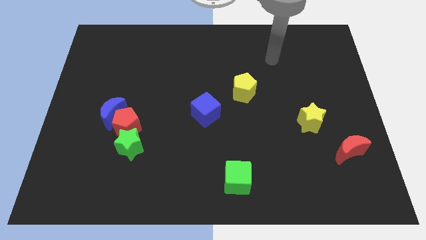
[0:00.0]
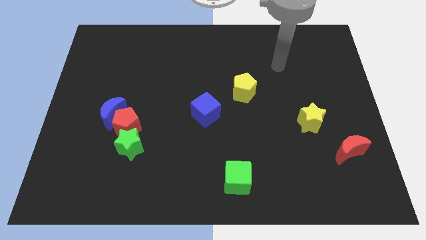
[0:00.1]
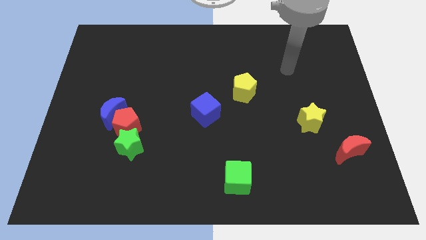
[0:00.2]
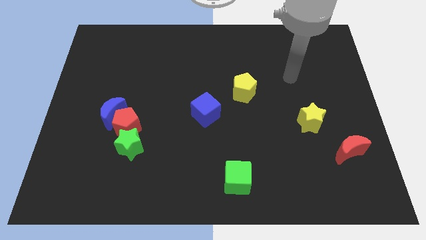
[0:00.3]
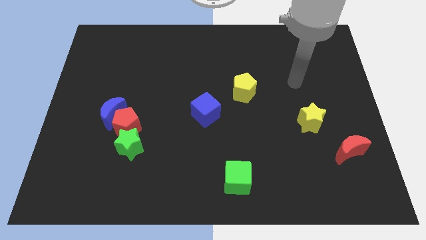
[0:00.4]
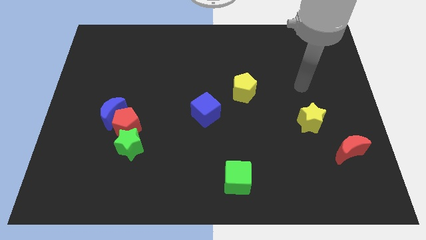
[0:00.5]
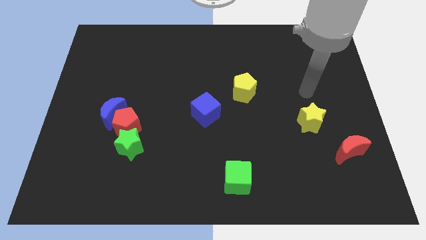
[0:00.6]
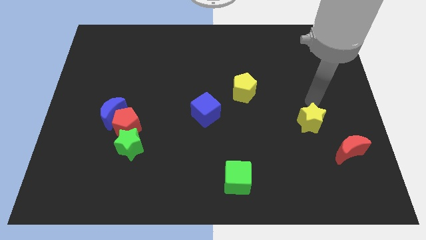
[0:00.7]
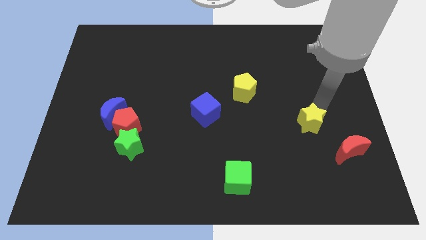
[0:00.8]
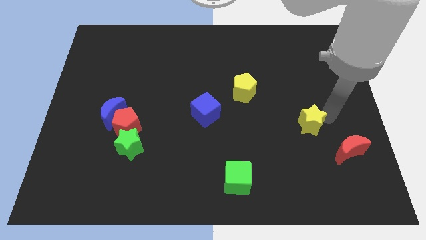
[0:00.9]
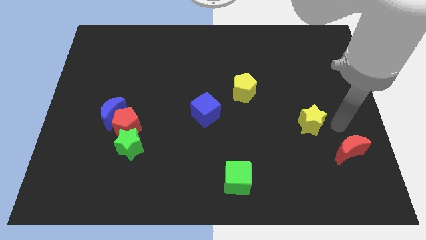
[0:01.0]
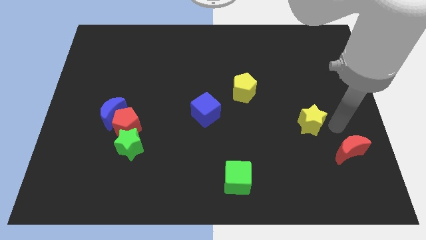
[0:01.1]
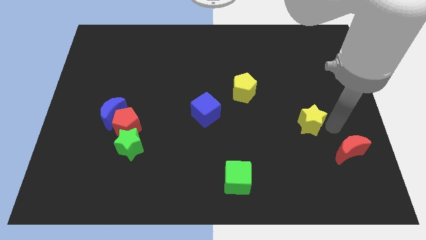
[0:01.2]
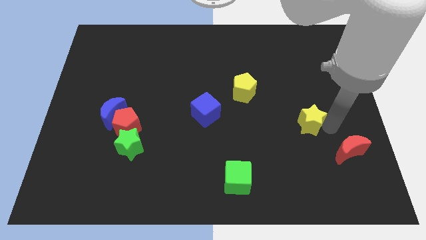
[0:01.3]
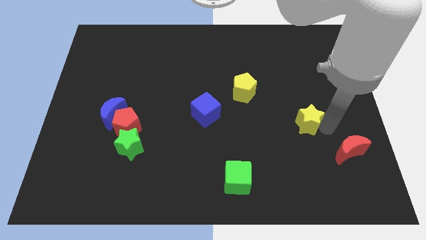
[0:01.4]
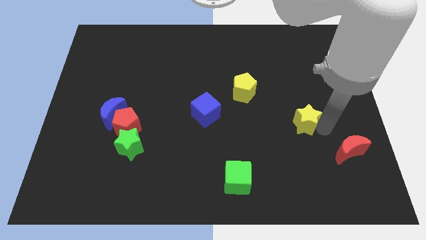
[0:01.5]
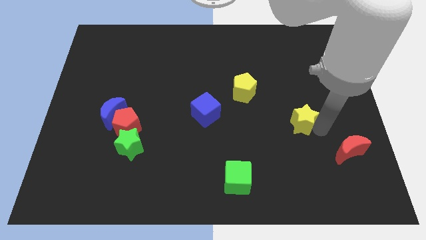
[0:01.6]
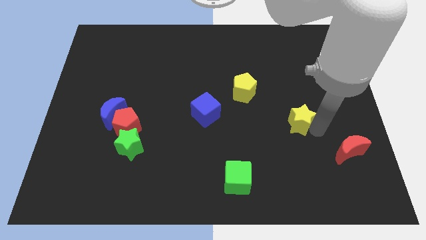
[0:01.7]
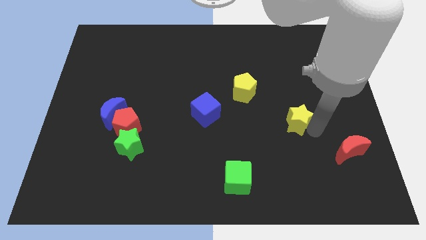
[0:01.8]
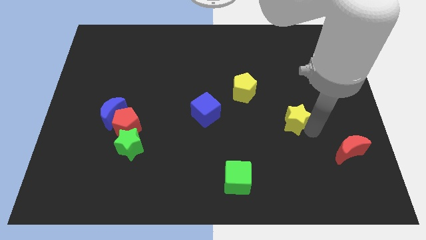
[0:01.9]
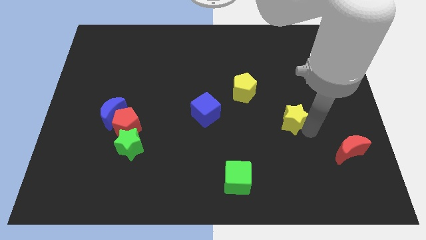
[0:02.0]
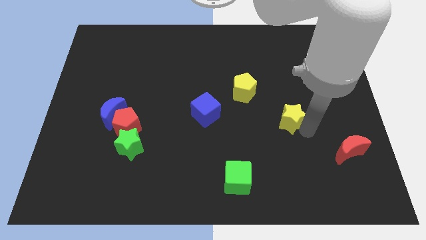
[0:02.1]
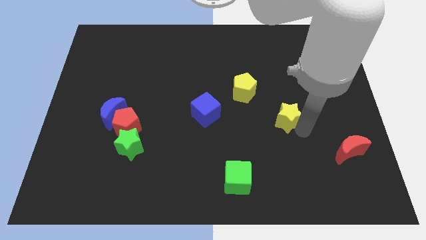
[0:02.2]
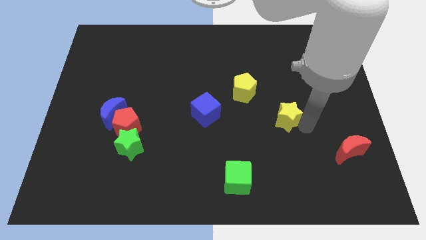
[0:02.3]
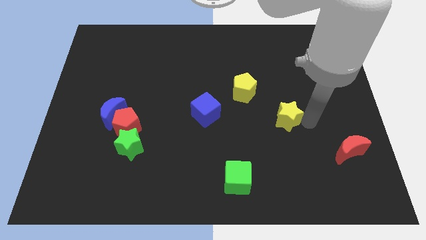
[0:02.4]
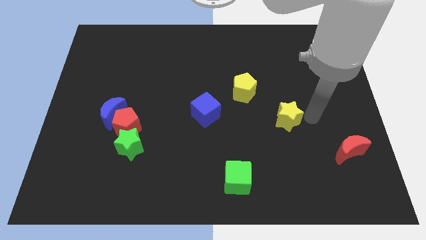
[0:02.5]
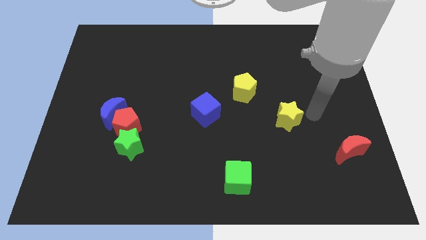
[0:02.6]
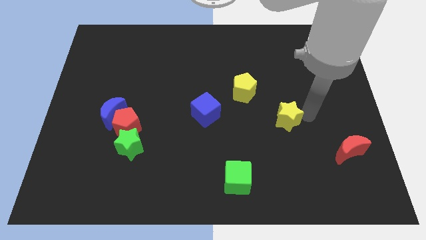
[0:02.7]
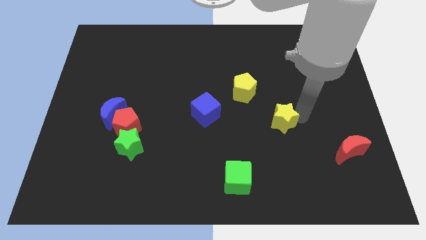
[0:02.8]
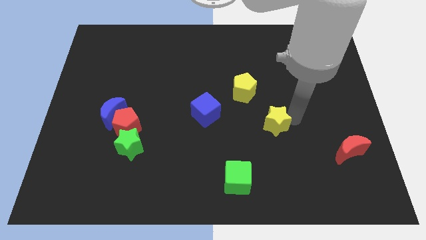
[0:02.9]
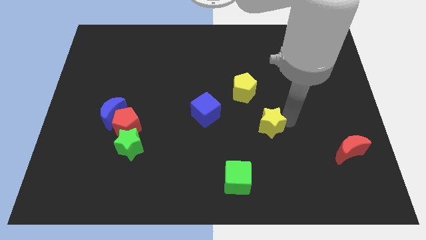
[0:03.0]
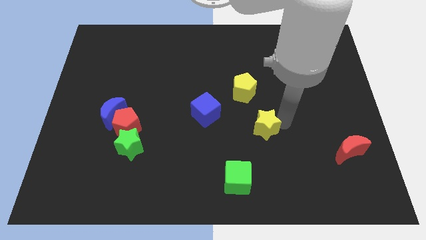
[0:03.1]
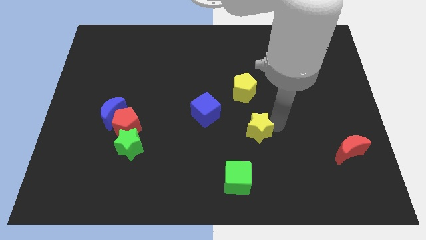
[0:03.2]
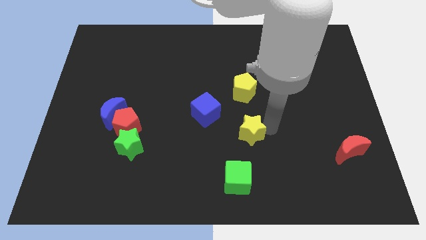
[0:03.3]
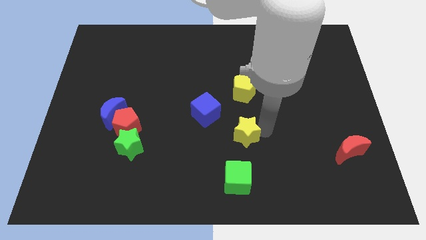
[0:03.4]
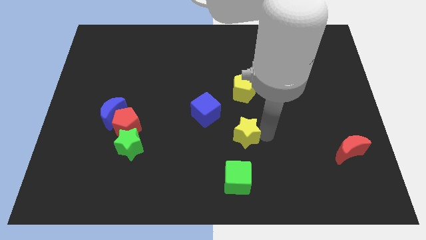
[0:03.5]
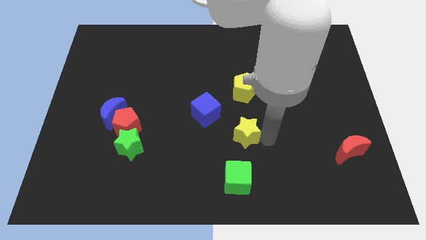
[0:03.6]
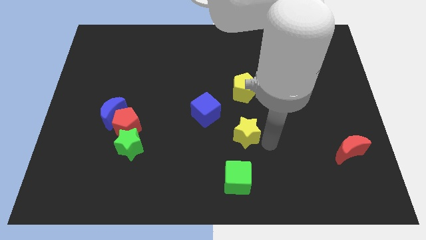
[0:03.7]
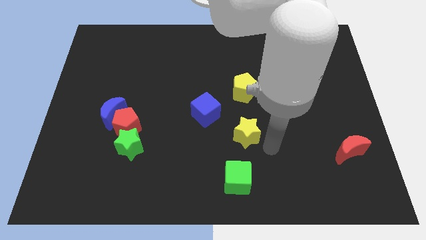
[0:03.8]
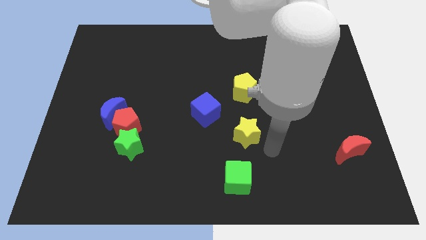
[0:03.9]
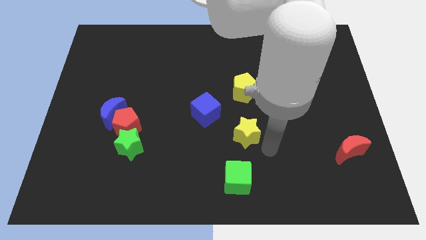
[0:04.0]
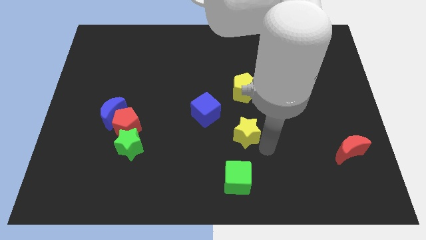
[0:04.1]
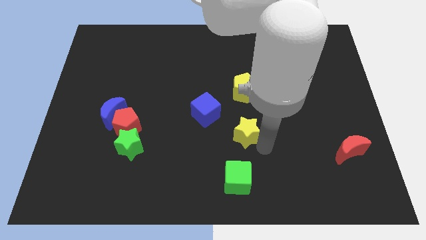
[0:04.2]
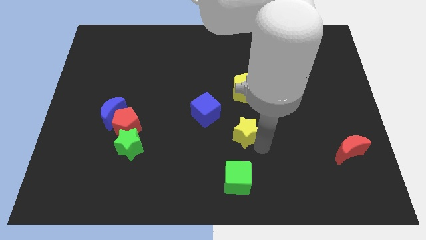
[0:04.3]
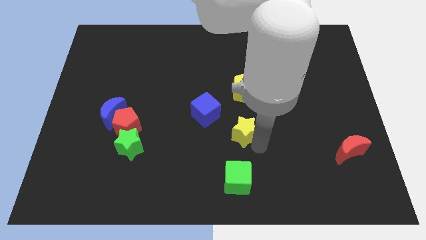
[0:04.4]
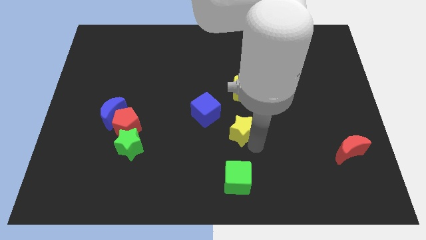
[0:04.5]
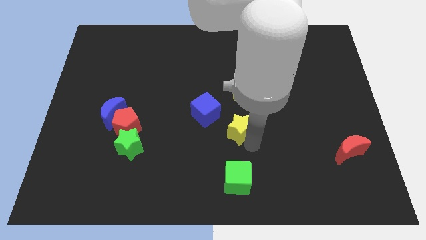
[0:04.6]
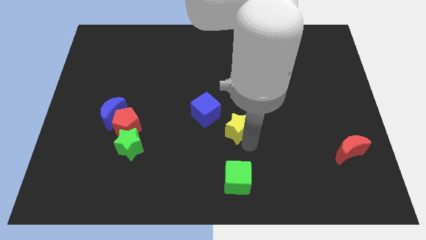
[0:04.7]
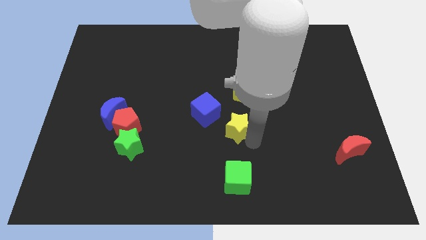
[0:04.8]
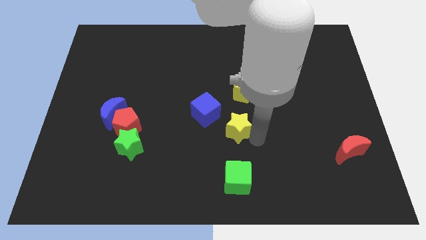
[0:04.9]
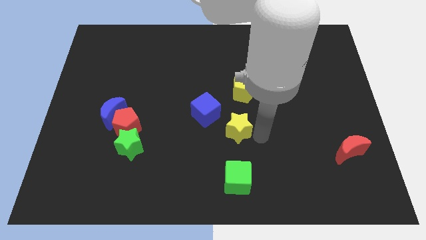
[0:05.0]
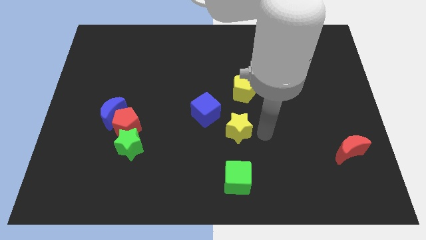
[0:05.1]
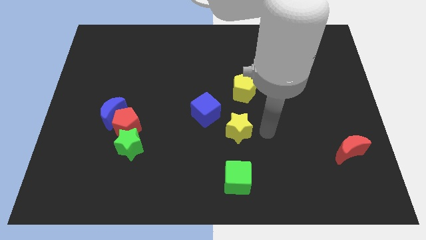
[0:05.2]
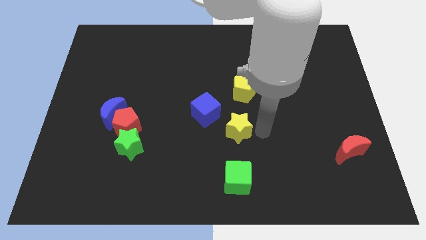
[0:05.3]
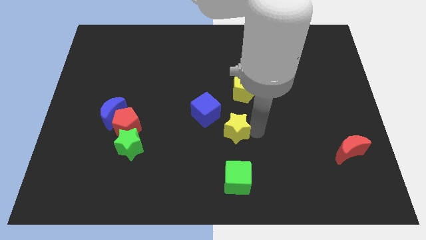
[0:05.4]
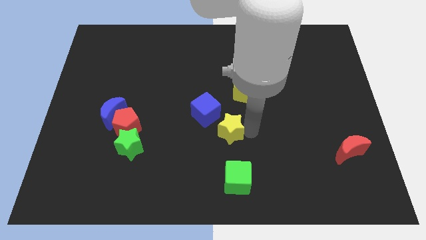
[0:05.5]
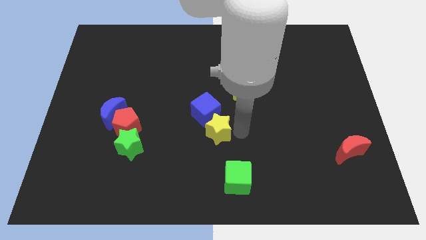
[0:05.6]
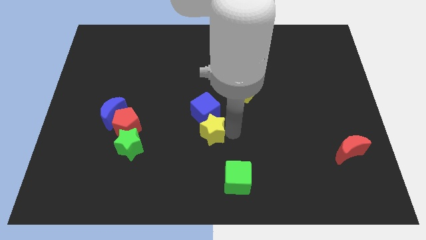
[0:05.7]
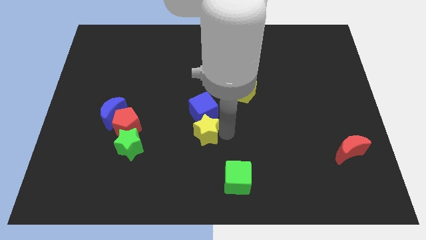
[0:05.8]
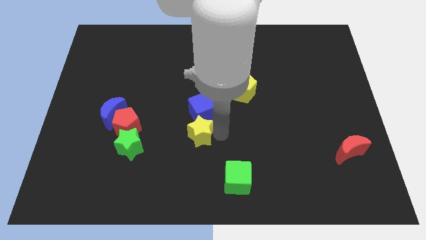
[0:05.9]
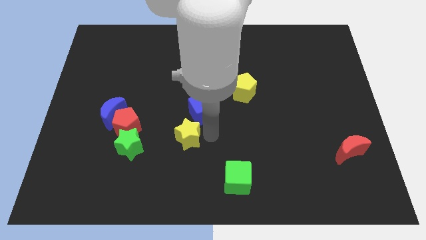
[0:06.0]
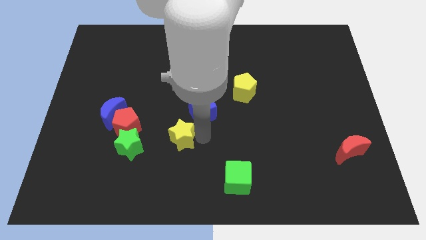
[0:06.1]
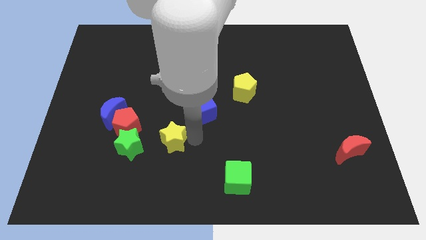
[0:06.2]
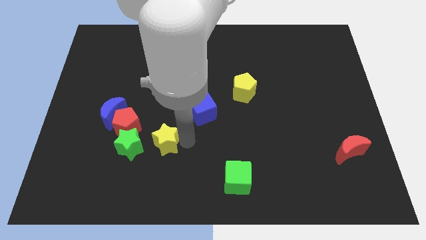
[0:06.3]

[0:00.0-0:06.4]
put the yellow star to the top right of the green star

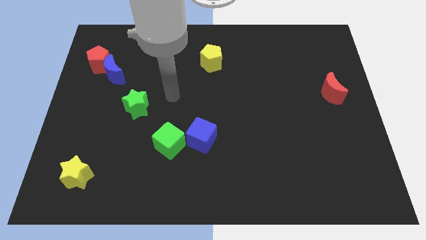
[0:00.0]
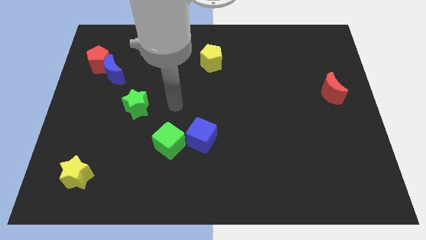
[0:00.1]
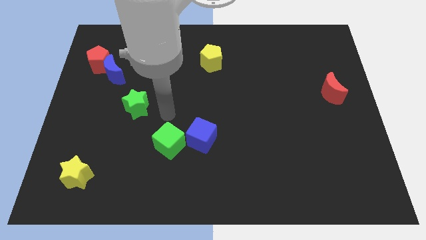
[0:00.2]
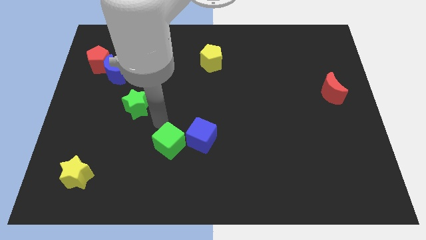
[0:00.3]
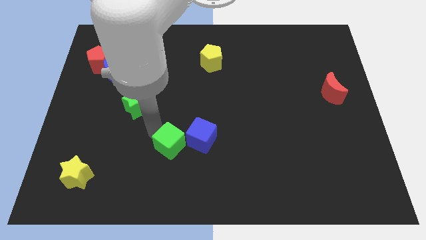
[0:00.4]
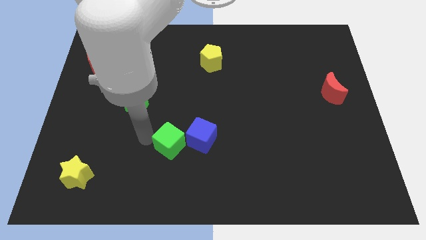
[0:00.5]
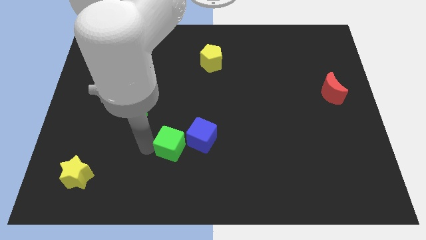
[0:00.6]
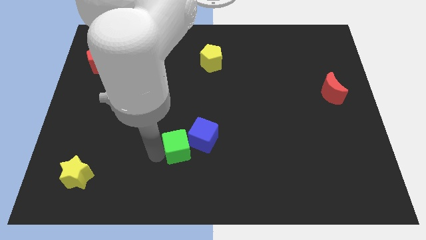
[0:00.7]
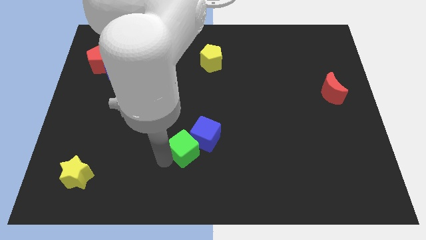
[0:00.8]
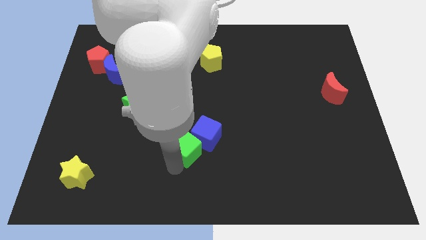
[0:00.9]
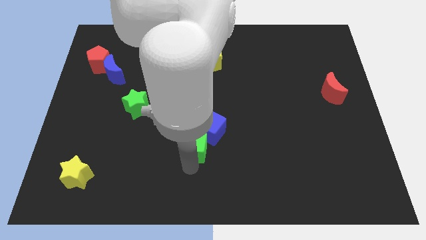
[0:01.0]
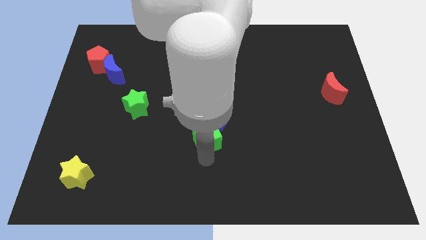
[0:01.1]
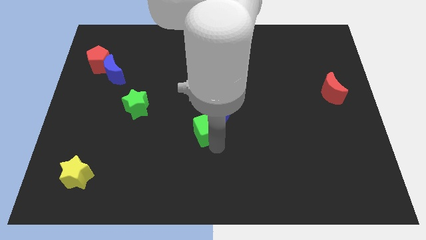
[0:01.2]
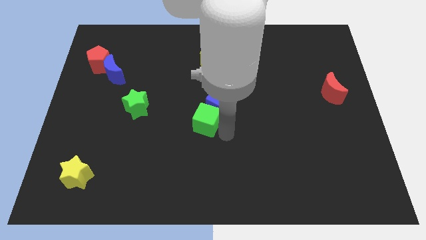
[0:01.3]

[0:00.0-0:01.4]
move the blue cube below the yellow pentagon
